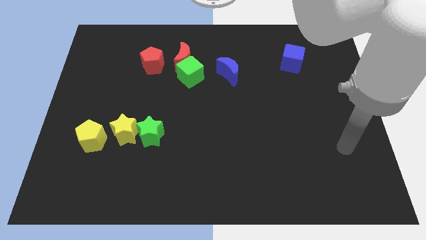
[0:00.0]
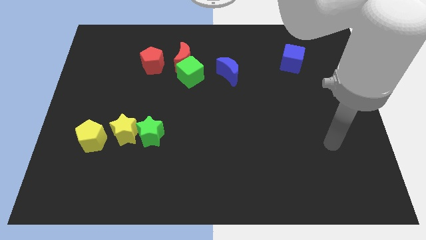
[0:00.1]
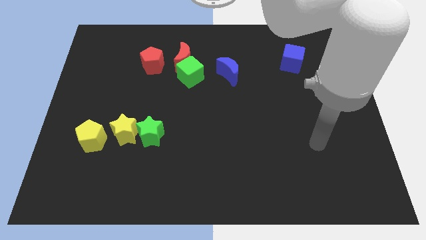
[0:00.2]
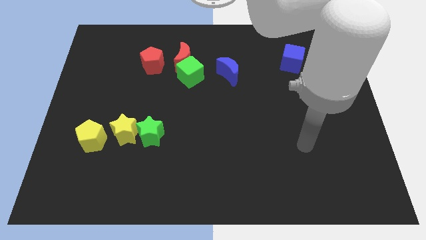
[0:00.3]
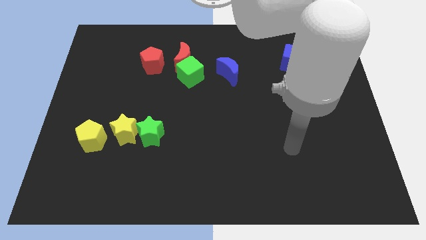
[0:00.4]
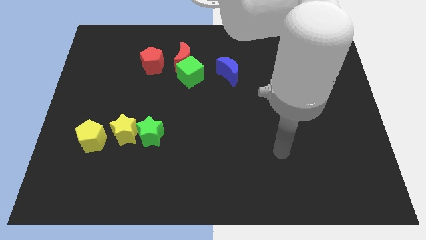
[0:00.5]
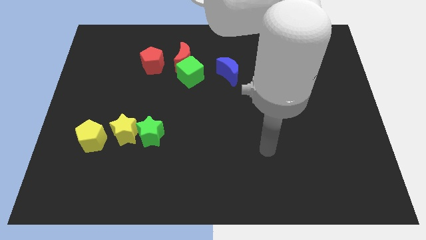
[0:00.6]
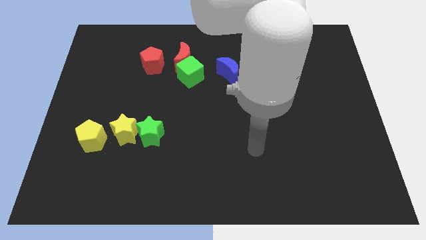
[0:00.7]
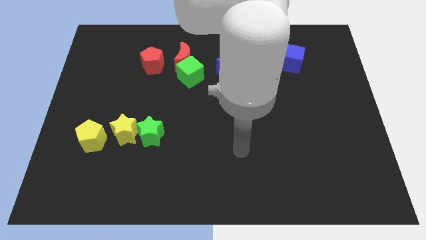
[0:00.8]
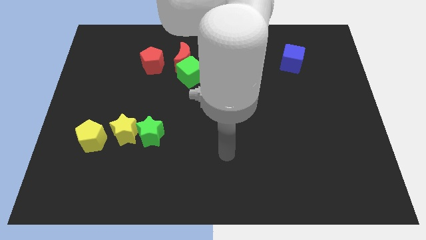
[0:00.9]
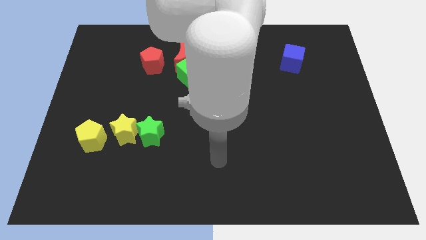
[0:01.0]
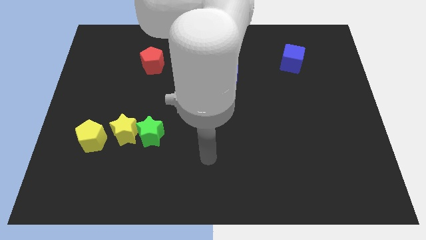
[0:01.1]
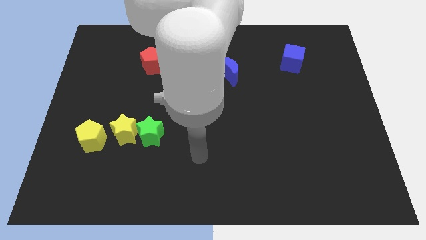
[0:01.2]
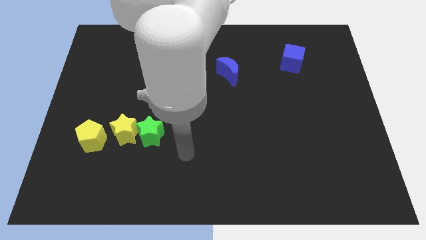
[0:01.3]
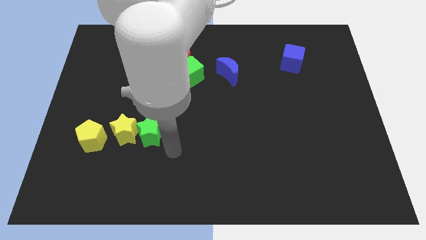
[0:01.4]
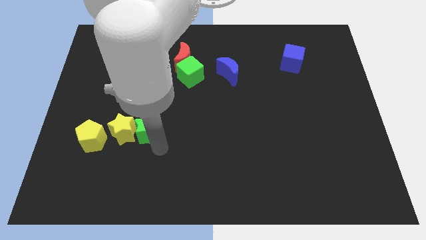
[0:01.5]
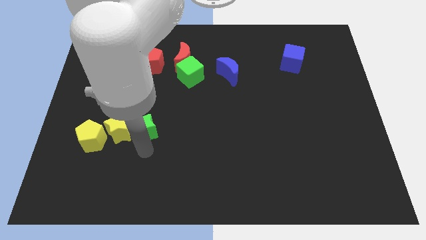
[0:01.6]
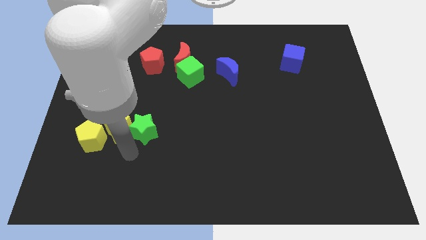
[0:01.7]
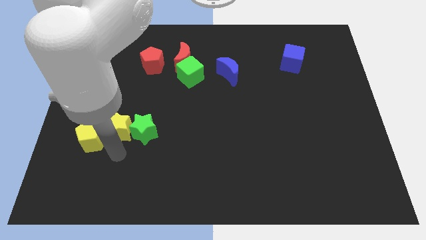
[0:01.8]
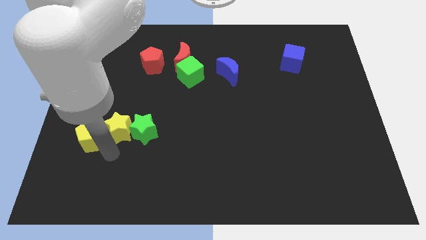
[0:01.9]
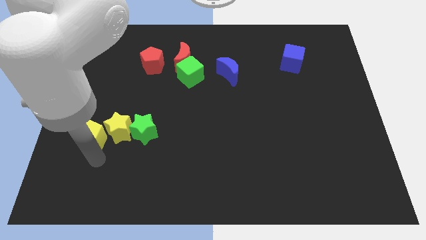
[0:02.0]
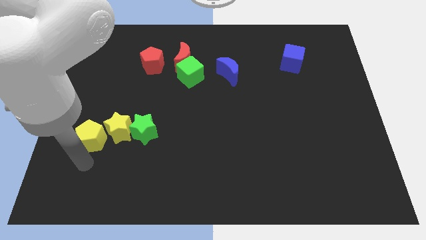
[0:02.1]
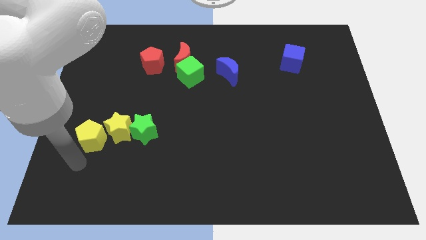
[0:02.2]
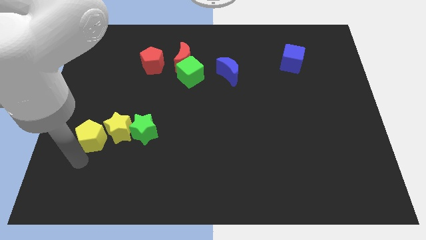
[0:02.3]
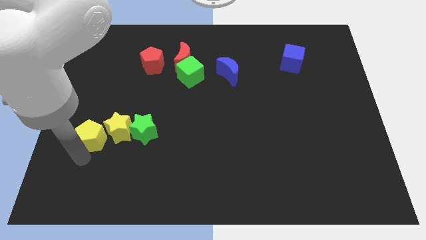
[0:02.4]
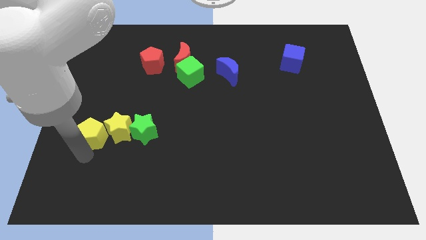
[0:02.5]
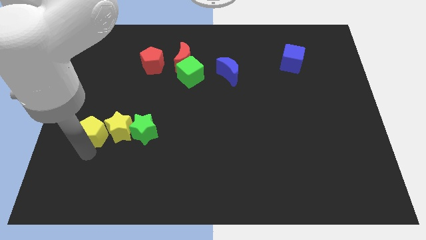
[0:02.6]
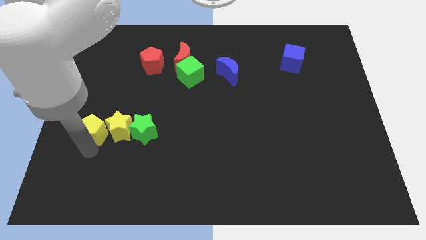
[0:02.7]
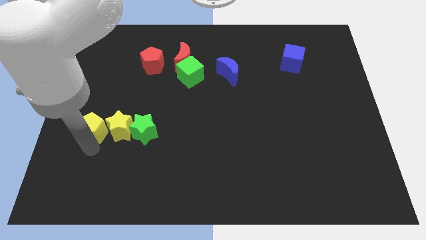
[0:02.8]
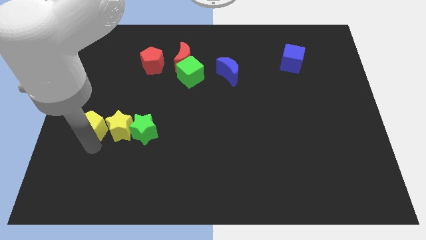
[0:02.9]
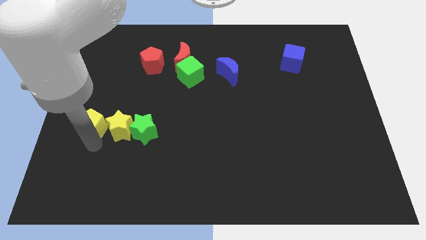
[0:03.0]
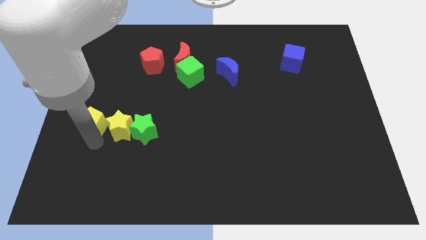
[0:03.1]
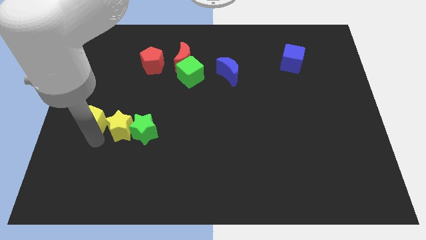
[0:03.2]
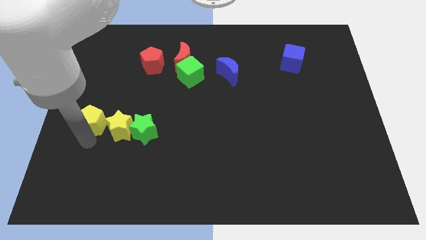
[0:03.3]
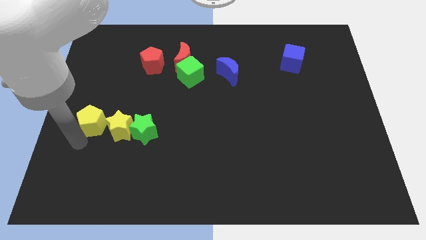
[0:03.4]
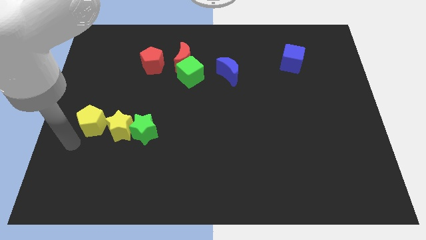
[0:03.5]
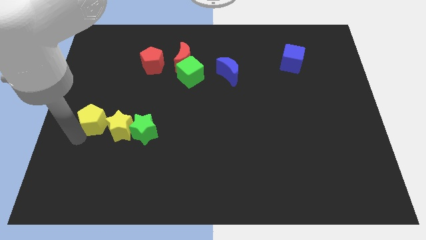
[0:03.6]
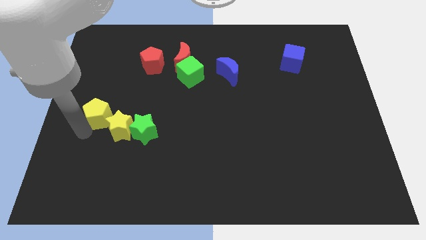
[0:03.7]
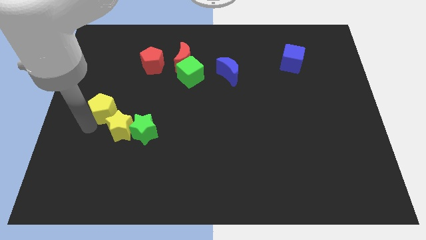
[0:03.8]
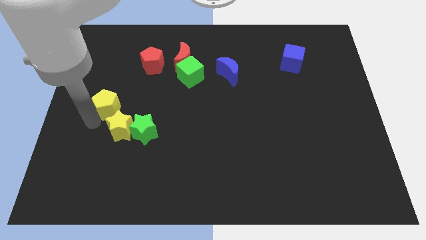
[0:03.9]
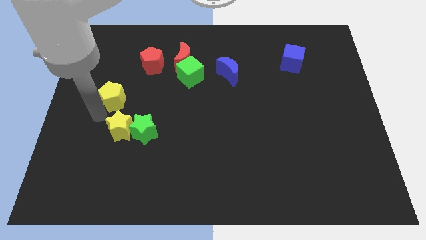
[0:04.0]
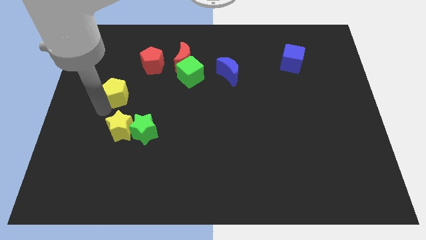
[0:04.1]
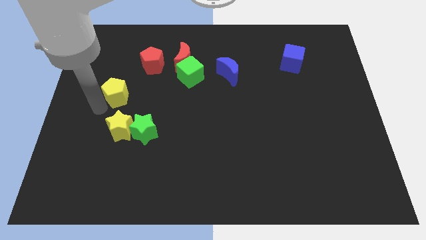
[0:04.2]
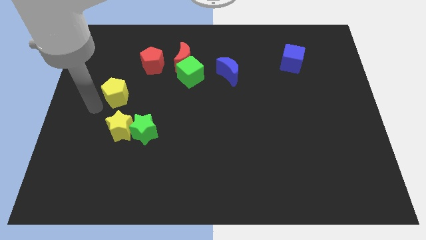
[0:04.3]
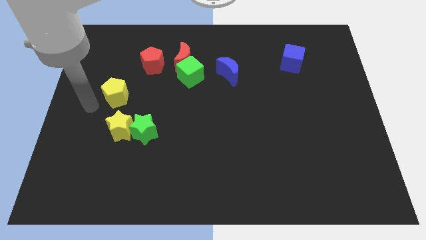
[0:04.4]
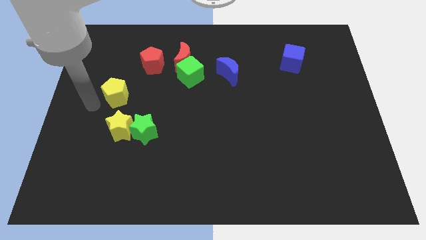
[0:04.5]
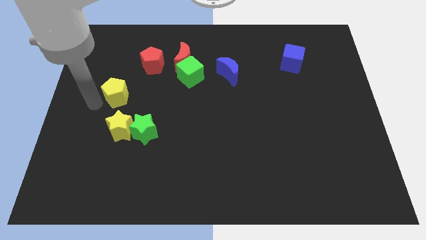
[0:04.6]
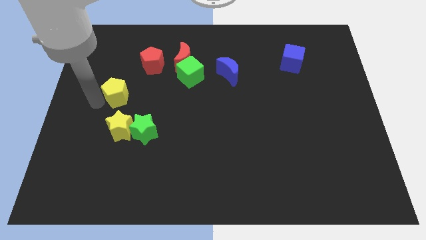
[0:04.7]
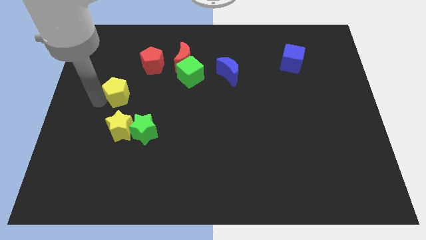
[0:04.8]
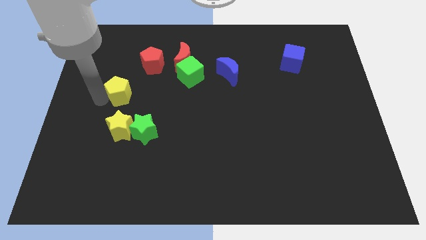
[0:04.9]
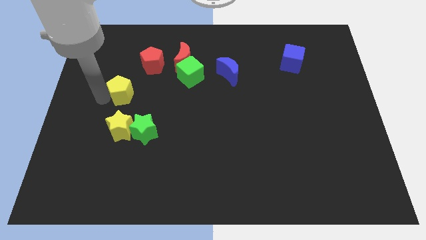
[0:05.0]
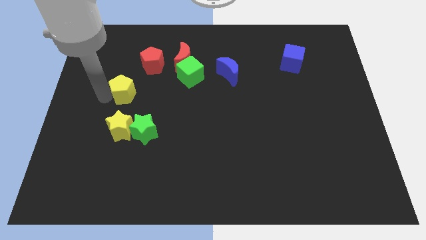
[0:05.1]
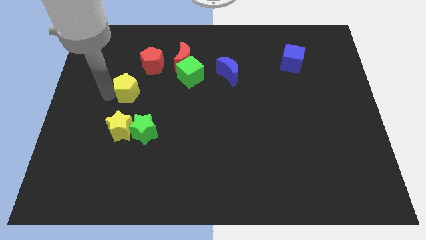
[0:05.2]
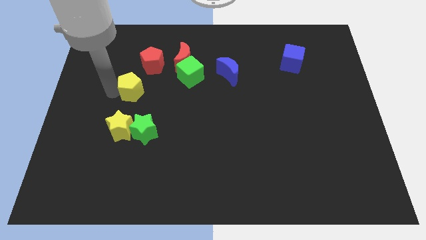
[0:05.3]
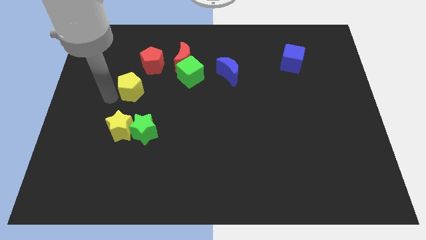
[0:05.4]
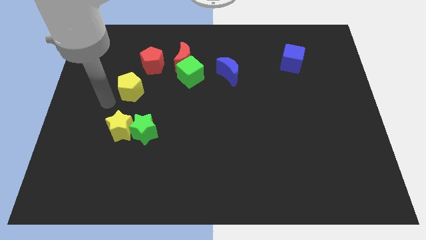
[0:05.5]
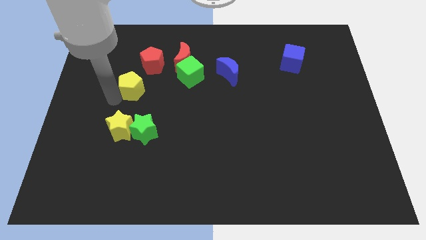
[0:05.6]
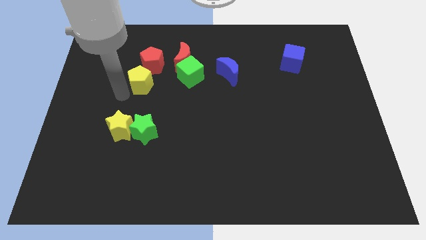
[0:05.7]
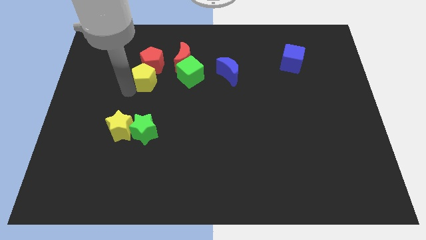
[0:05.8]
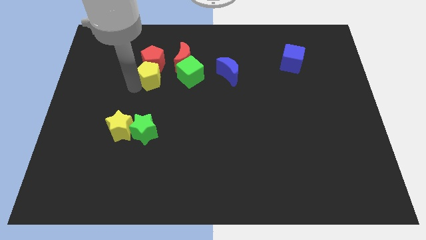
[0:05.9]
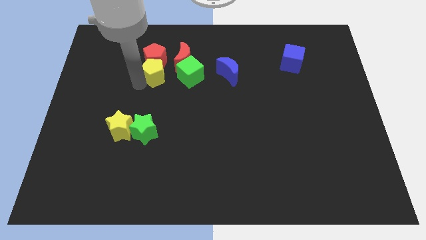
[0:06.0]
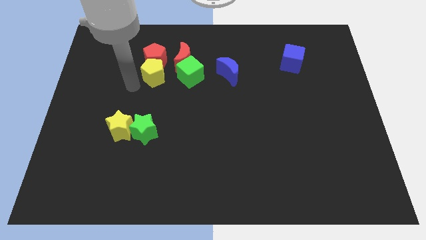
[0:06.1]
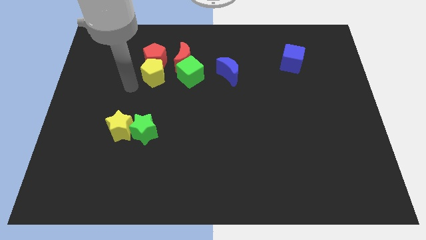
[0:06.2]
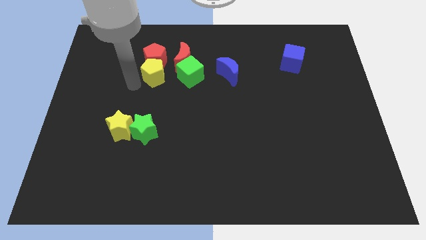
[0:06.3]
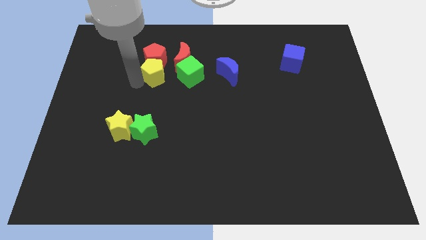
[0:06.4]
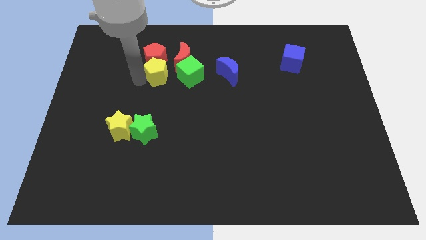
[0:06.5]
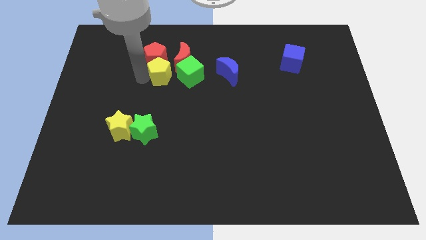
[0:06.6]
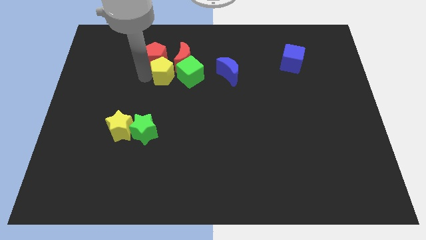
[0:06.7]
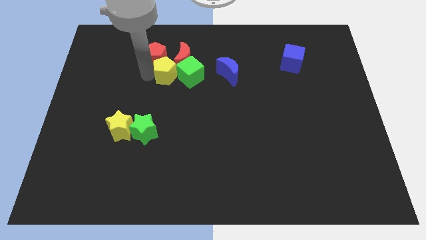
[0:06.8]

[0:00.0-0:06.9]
push the yellow pentagon towards the red moon
